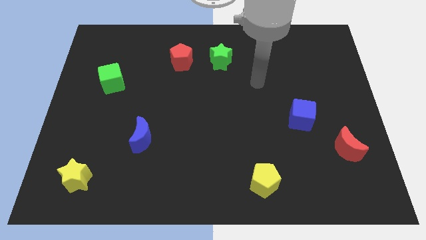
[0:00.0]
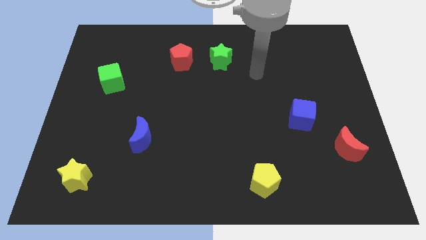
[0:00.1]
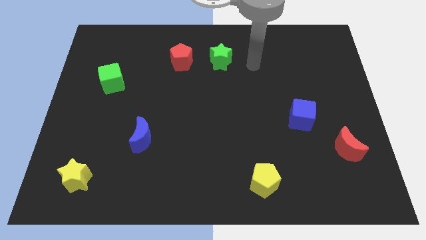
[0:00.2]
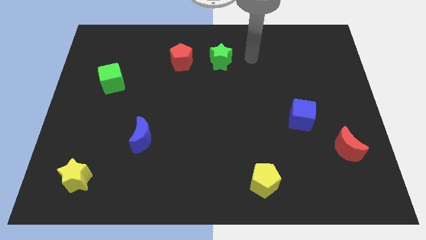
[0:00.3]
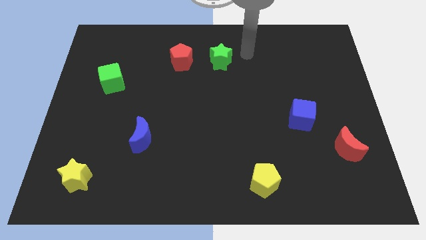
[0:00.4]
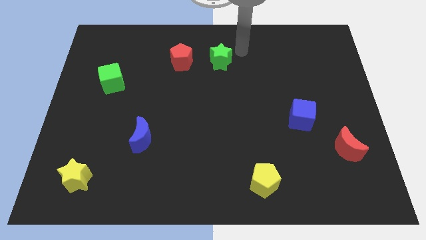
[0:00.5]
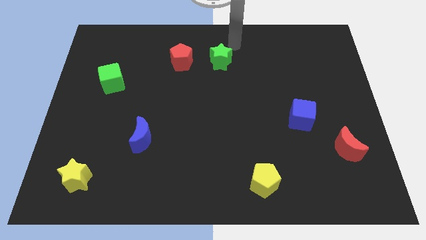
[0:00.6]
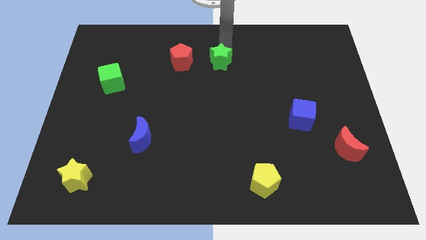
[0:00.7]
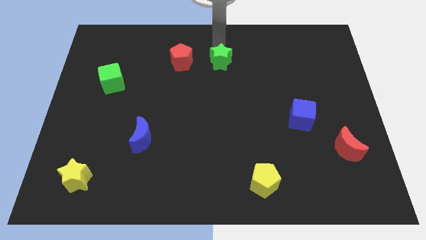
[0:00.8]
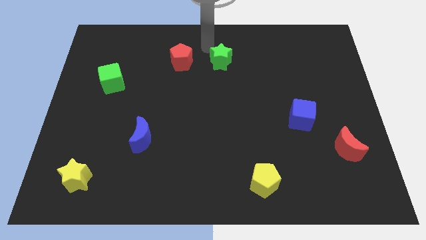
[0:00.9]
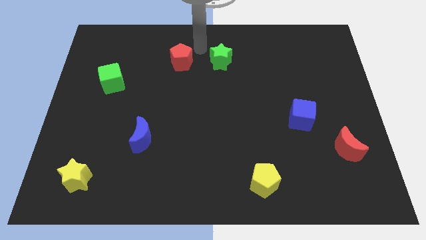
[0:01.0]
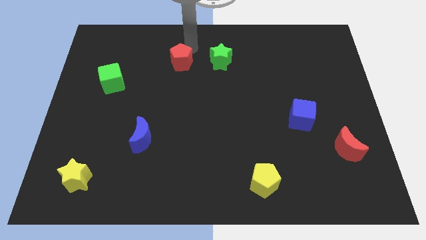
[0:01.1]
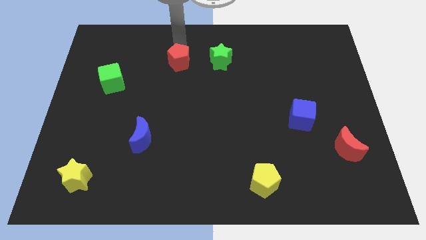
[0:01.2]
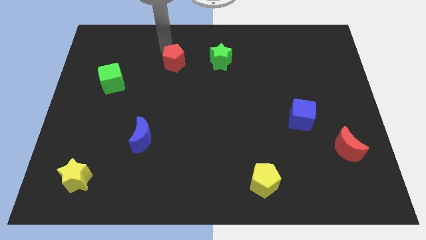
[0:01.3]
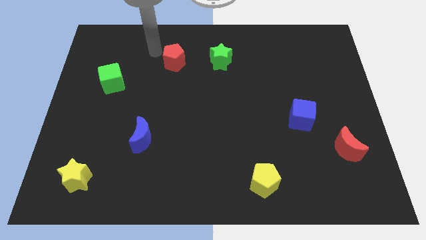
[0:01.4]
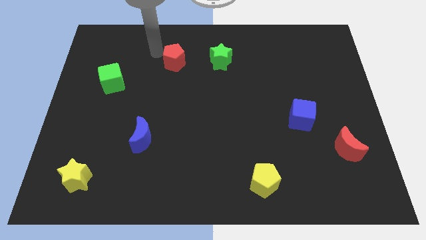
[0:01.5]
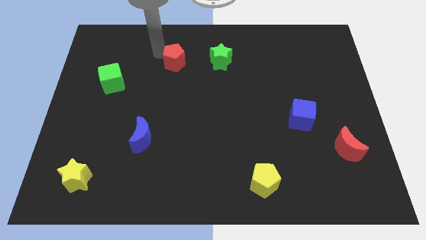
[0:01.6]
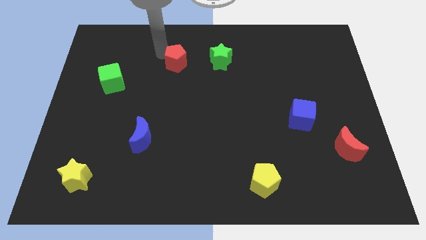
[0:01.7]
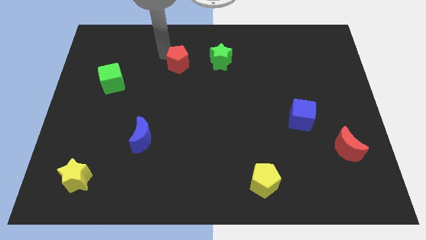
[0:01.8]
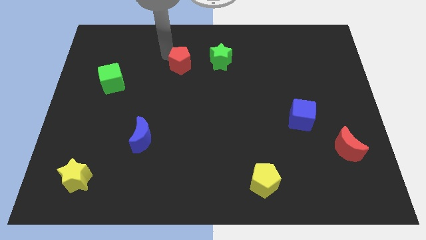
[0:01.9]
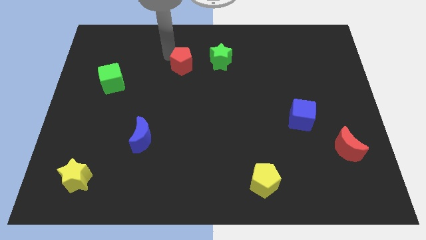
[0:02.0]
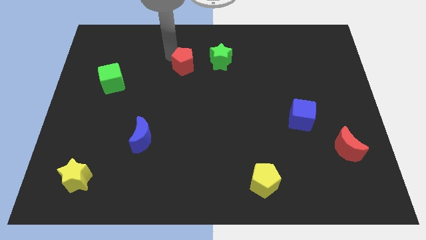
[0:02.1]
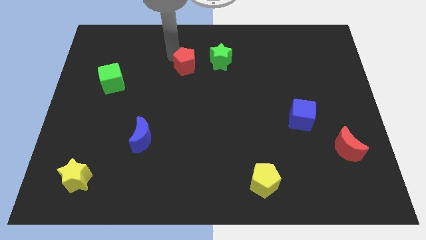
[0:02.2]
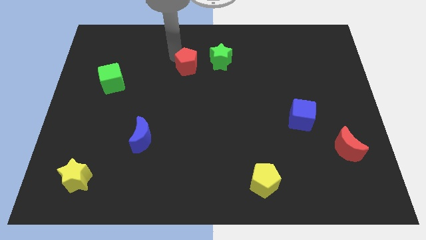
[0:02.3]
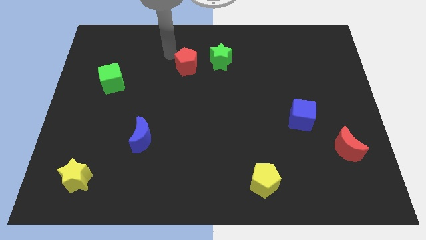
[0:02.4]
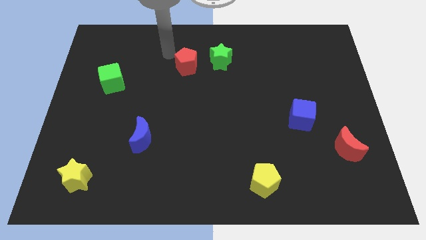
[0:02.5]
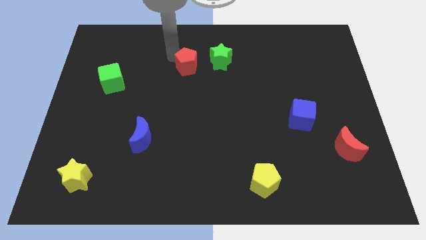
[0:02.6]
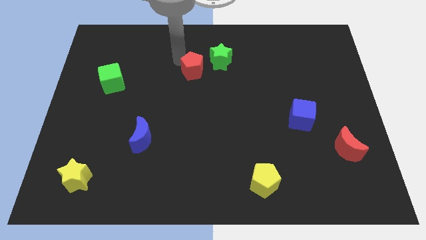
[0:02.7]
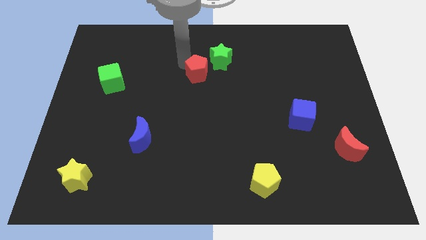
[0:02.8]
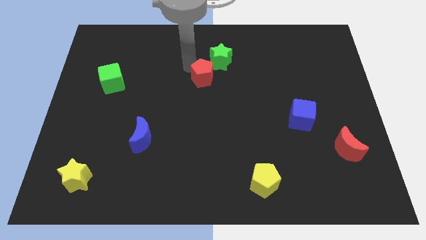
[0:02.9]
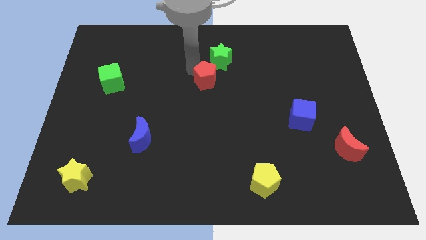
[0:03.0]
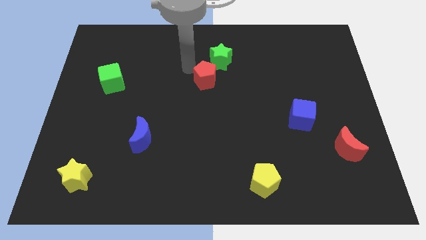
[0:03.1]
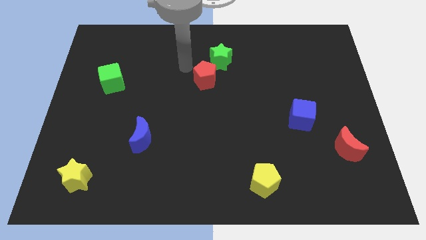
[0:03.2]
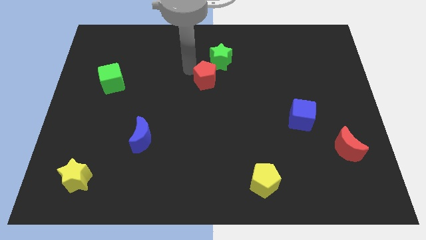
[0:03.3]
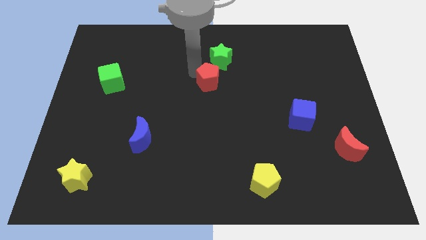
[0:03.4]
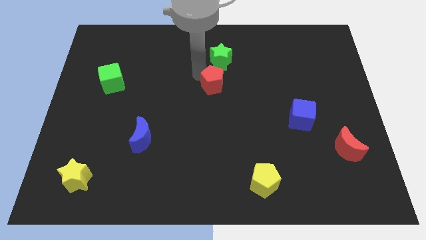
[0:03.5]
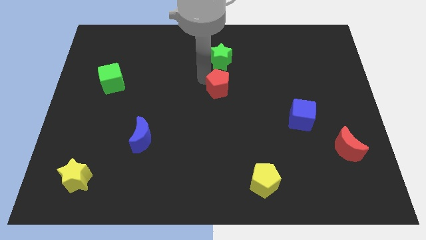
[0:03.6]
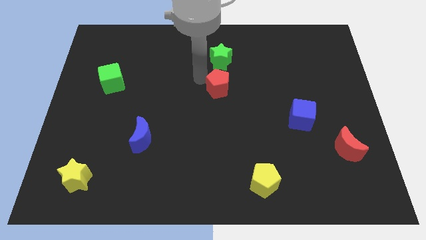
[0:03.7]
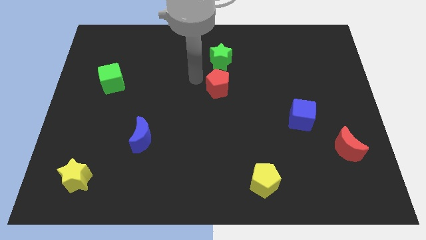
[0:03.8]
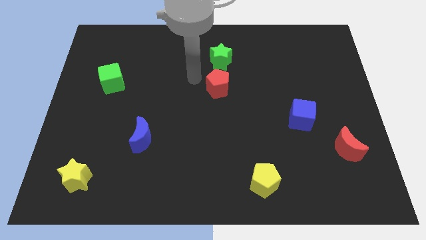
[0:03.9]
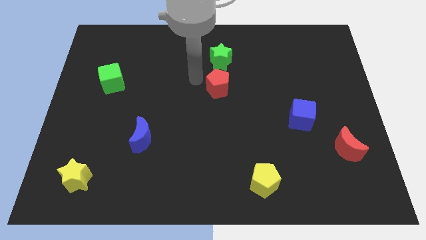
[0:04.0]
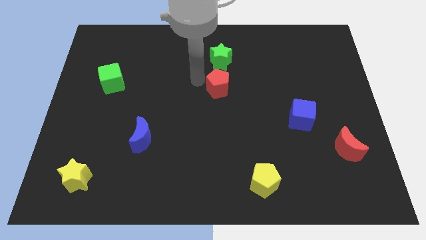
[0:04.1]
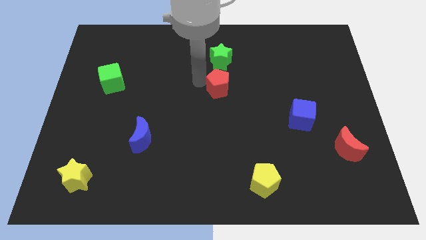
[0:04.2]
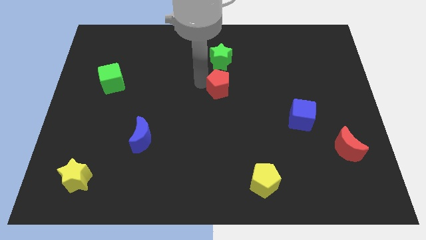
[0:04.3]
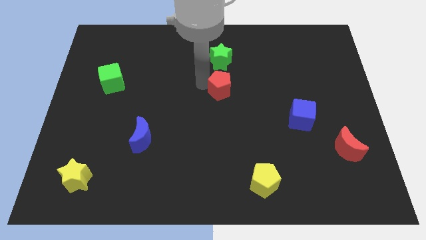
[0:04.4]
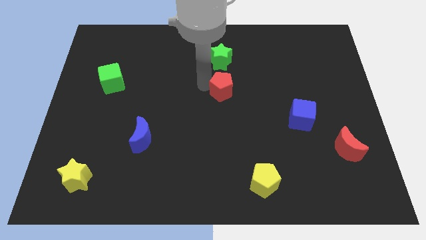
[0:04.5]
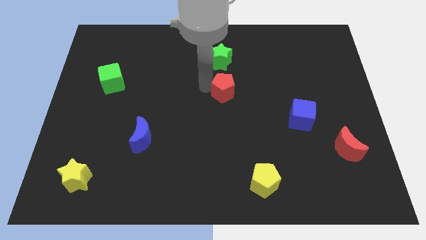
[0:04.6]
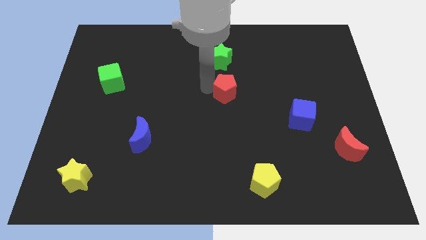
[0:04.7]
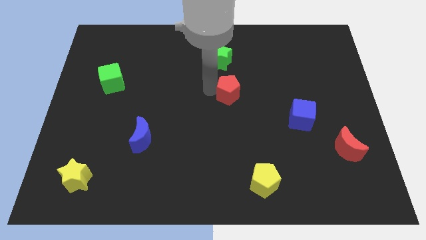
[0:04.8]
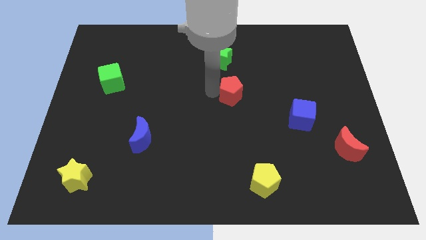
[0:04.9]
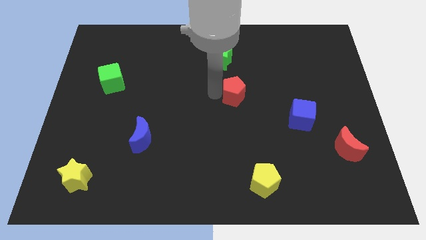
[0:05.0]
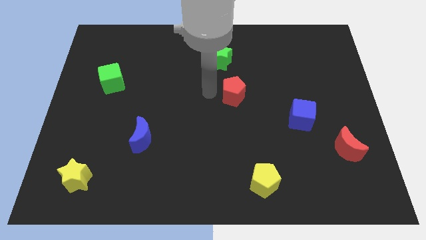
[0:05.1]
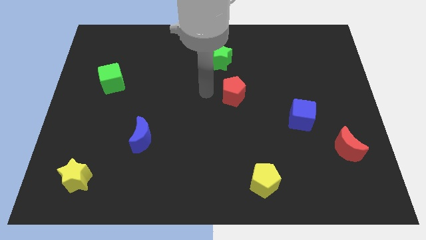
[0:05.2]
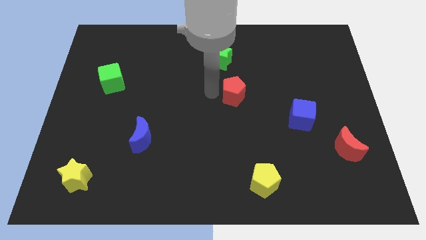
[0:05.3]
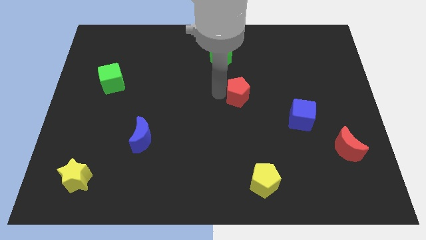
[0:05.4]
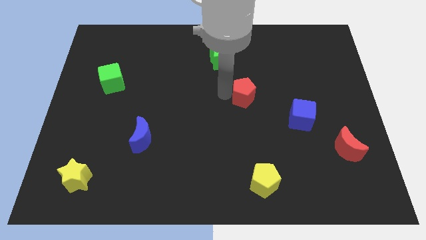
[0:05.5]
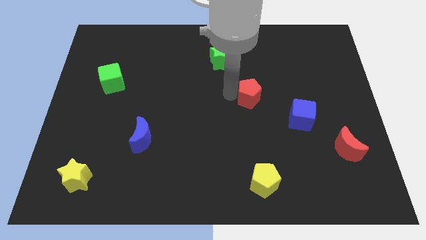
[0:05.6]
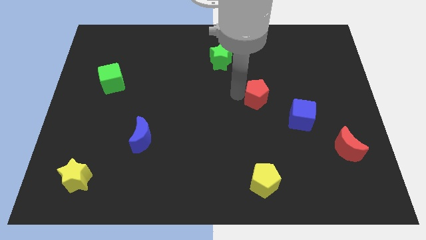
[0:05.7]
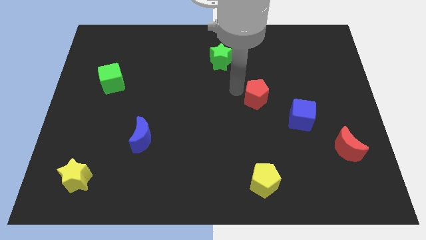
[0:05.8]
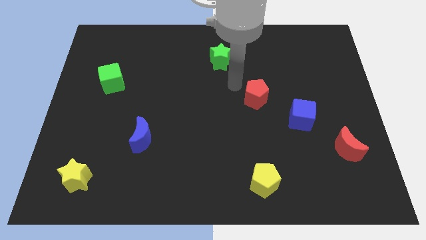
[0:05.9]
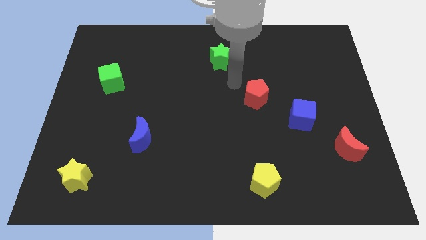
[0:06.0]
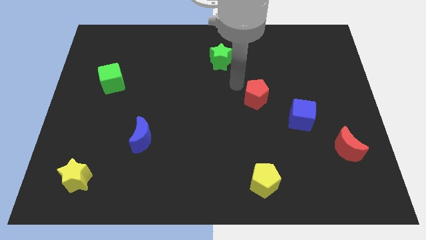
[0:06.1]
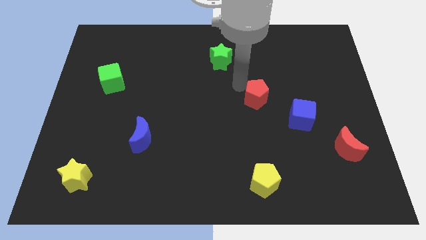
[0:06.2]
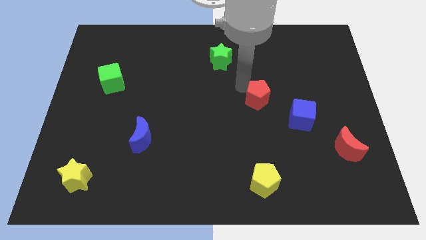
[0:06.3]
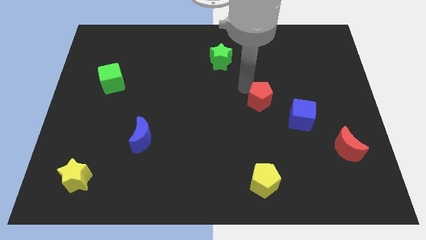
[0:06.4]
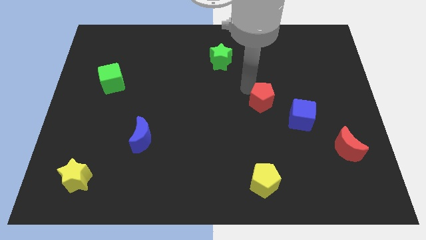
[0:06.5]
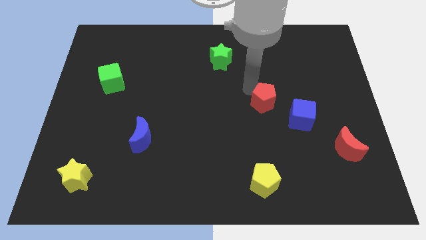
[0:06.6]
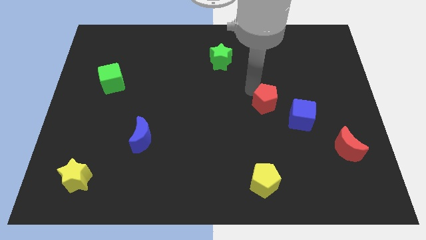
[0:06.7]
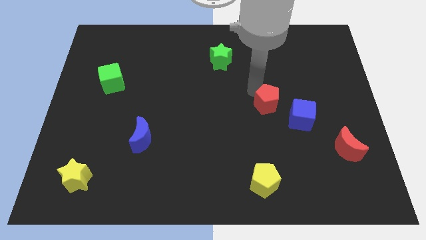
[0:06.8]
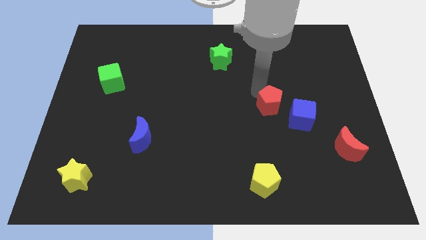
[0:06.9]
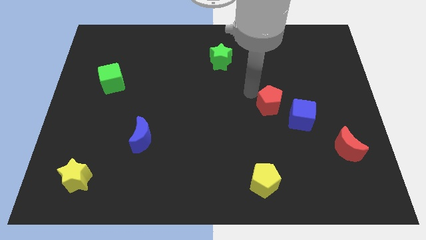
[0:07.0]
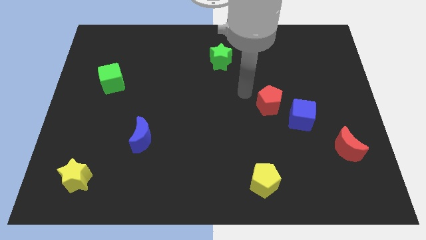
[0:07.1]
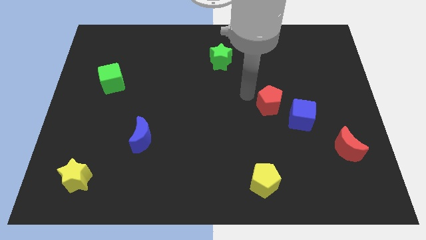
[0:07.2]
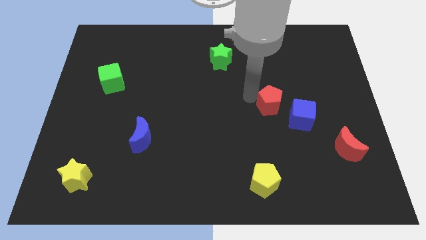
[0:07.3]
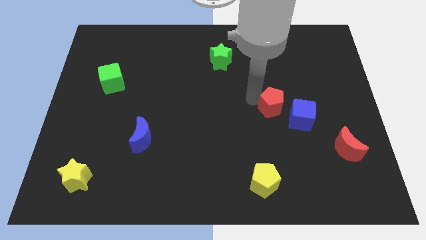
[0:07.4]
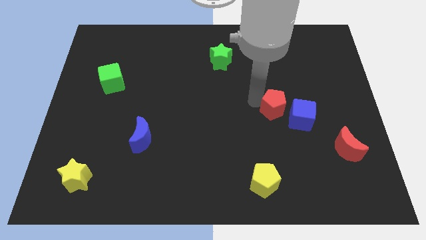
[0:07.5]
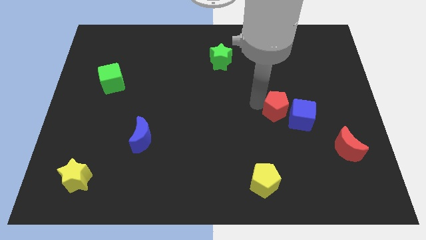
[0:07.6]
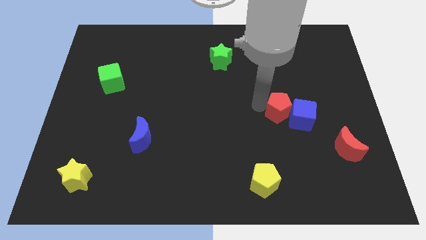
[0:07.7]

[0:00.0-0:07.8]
put the red pentagon to the blue cube
